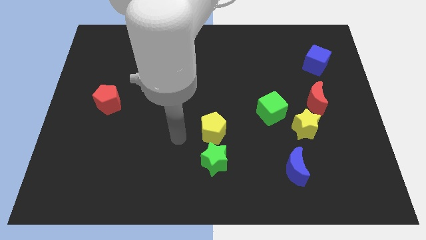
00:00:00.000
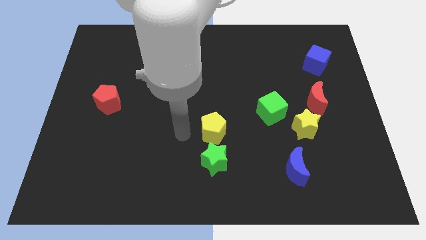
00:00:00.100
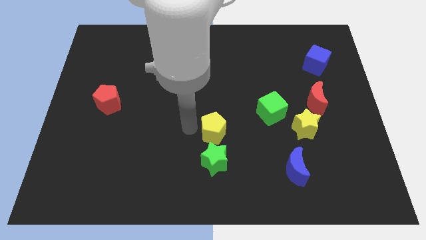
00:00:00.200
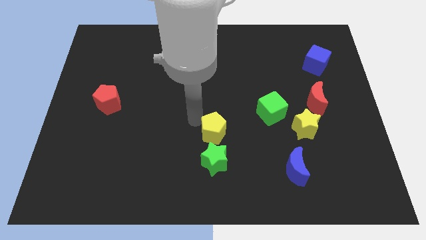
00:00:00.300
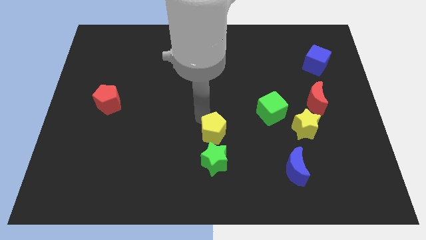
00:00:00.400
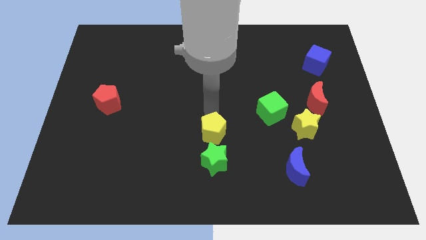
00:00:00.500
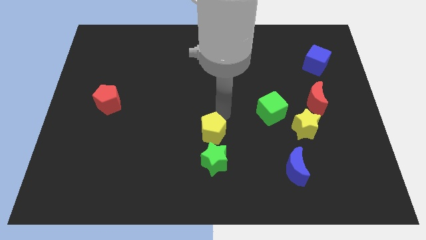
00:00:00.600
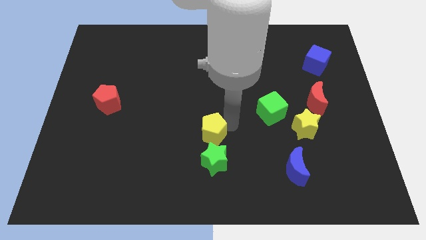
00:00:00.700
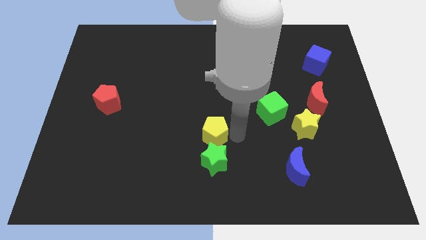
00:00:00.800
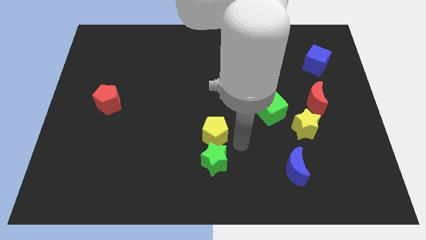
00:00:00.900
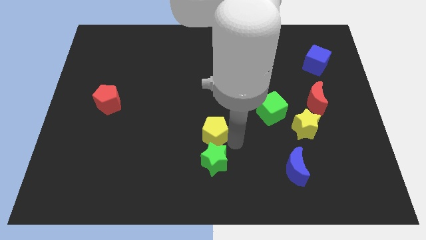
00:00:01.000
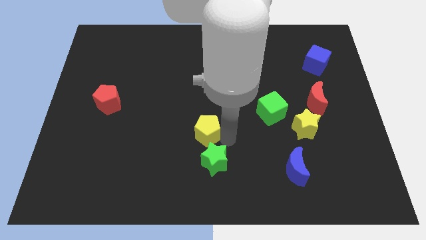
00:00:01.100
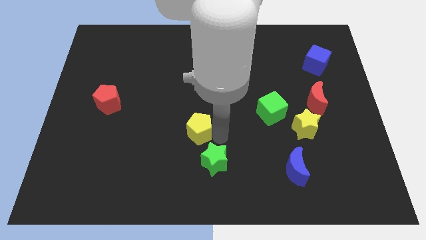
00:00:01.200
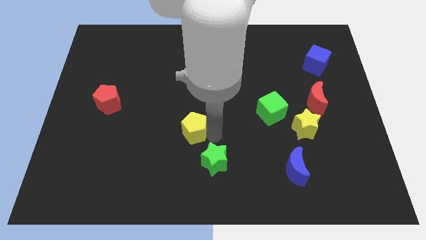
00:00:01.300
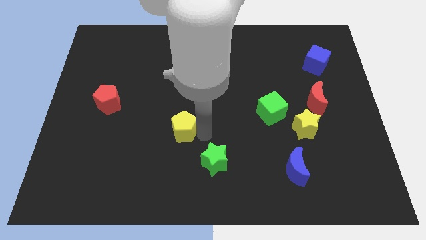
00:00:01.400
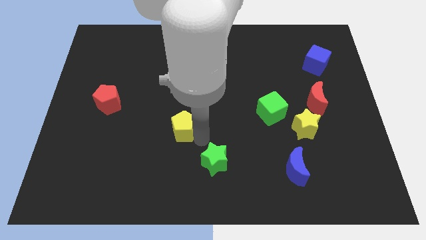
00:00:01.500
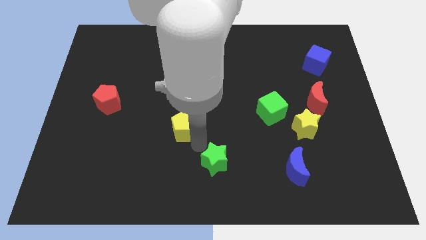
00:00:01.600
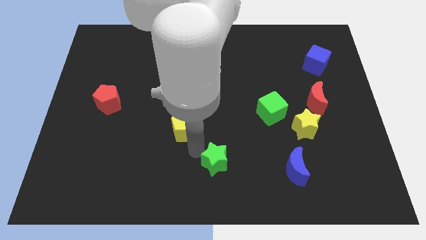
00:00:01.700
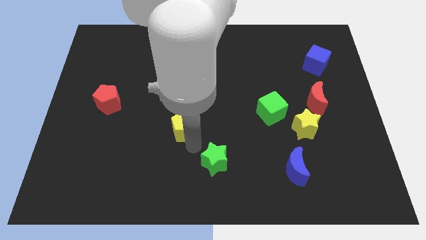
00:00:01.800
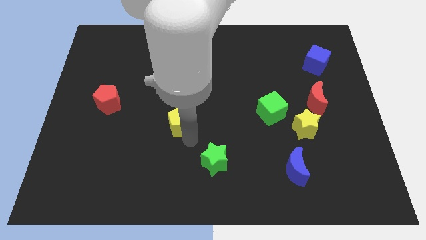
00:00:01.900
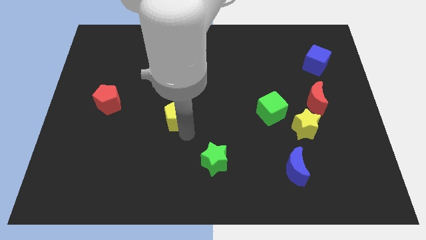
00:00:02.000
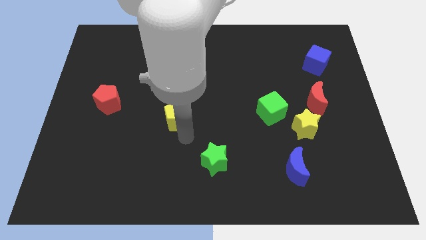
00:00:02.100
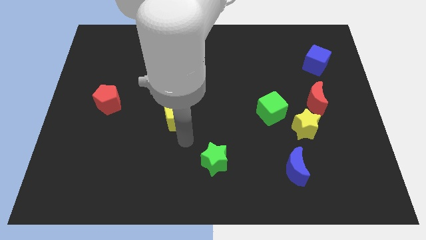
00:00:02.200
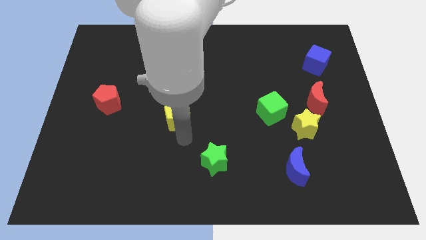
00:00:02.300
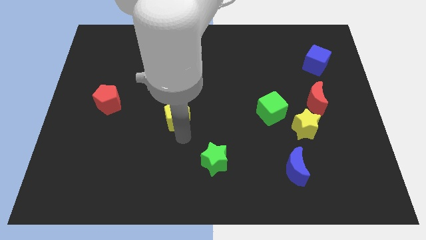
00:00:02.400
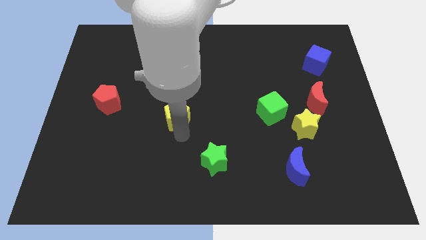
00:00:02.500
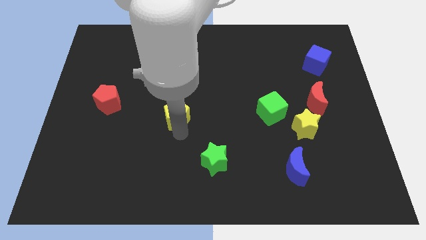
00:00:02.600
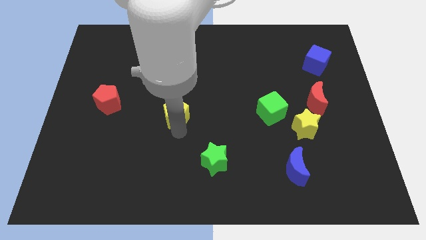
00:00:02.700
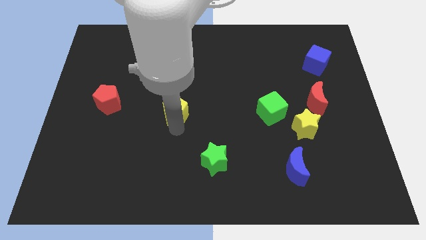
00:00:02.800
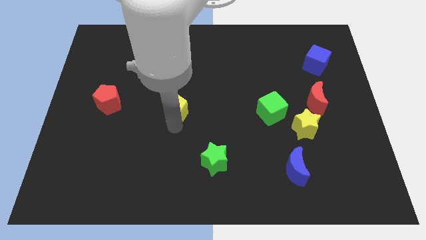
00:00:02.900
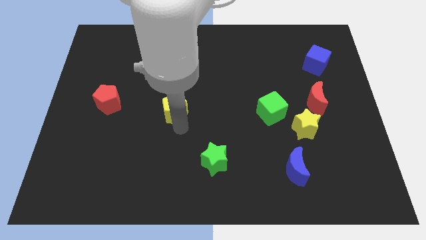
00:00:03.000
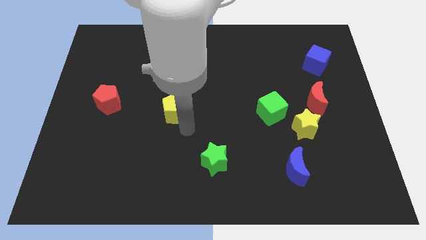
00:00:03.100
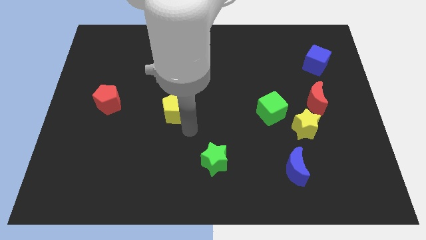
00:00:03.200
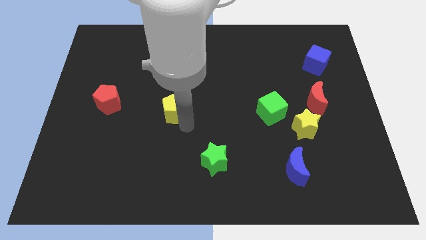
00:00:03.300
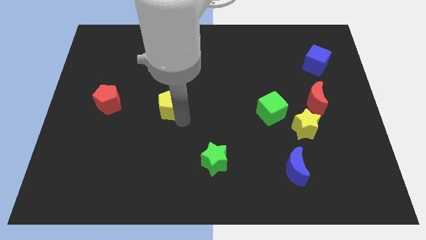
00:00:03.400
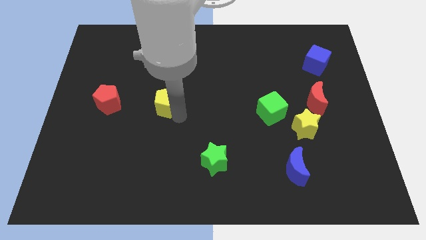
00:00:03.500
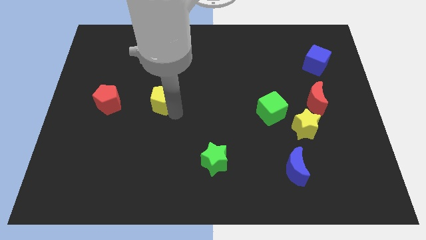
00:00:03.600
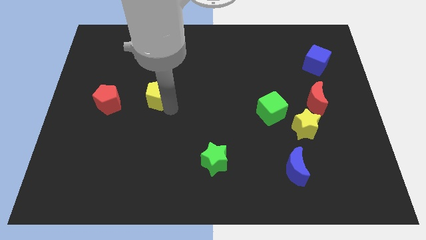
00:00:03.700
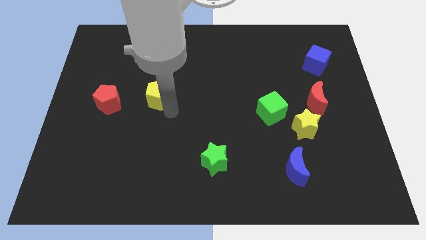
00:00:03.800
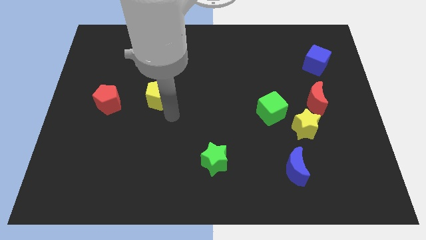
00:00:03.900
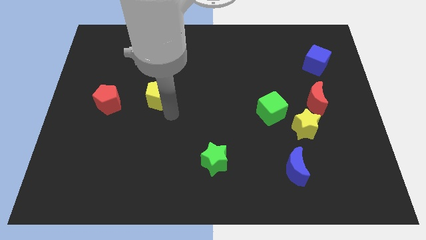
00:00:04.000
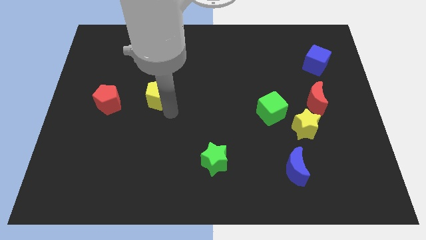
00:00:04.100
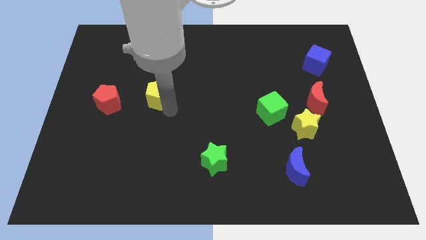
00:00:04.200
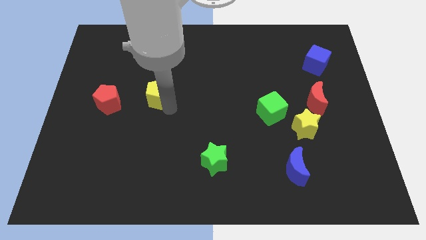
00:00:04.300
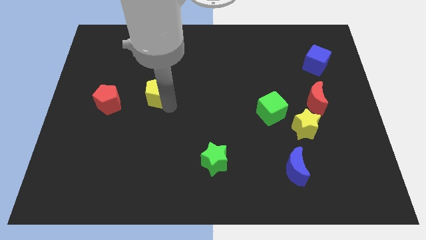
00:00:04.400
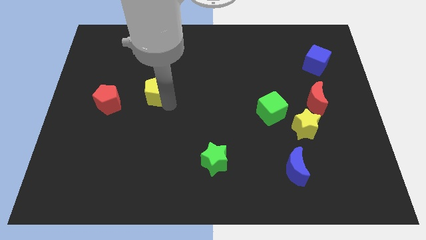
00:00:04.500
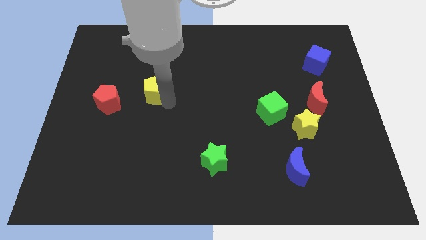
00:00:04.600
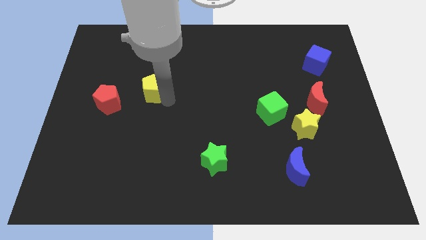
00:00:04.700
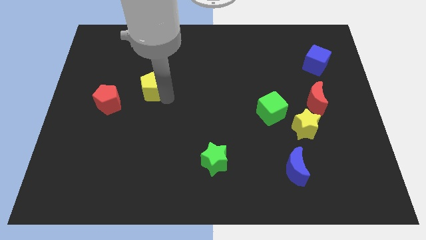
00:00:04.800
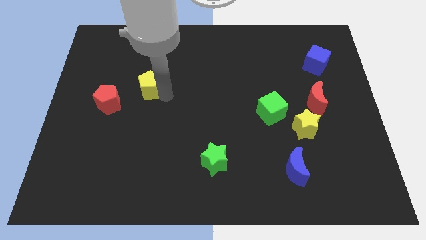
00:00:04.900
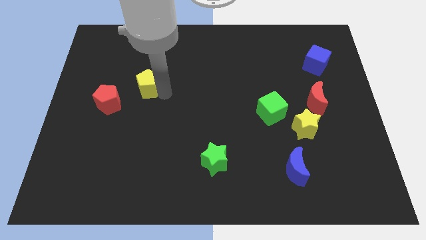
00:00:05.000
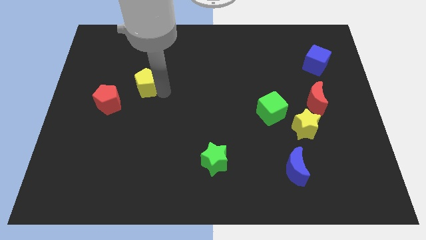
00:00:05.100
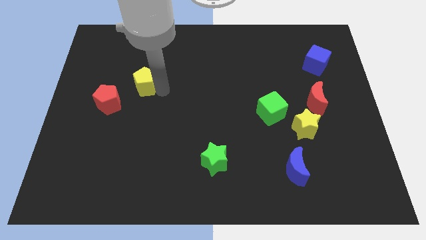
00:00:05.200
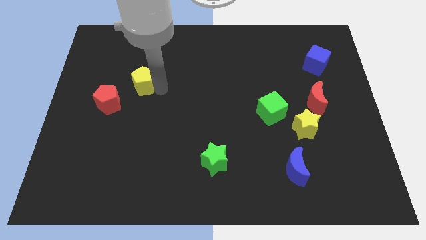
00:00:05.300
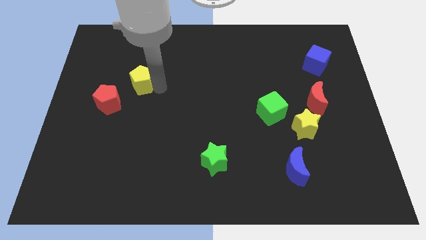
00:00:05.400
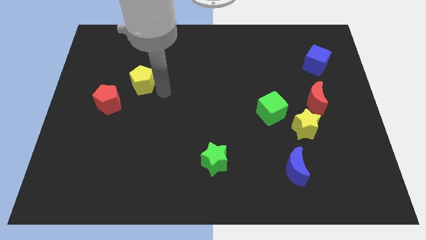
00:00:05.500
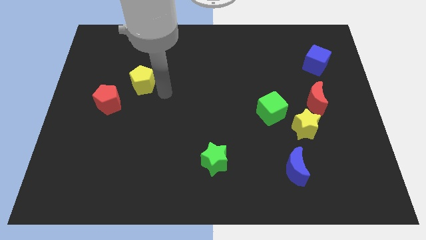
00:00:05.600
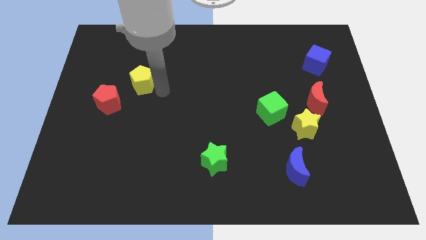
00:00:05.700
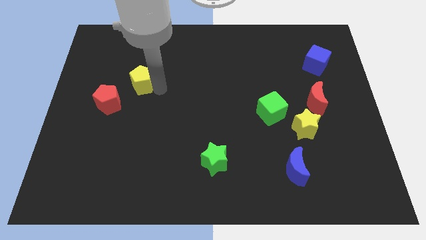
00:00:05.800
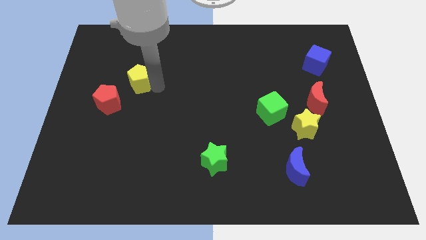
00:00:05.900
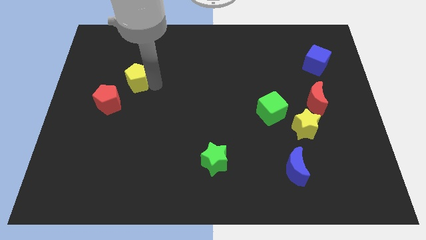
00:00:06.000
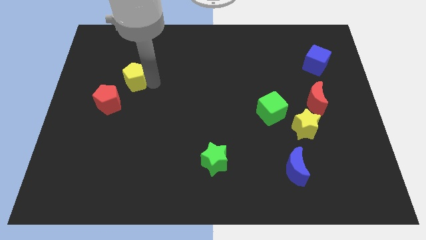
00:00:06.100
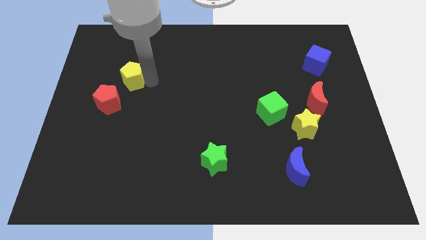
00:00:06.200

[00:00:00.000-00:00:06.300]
put the yellow pentagon to the top side of the red pentagon
